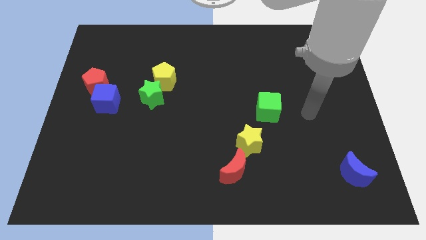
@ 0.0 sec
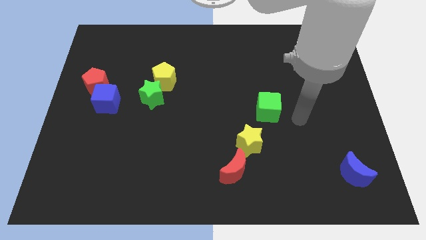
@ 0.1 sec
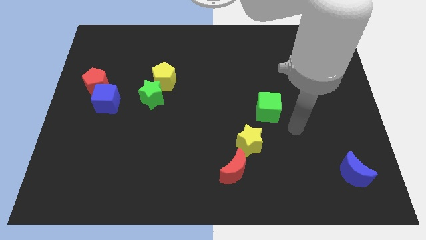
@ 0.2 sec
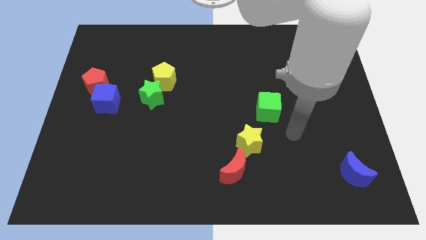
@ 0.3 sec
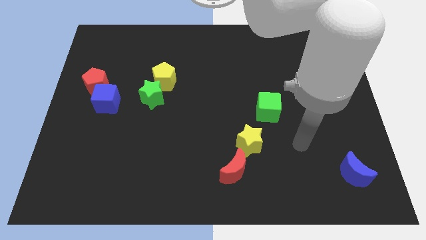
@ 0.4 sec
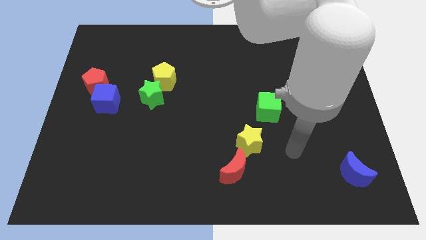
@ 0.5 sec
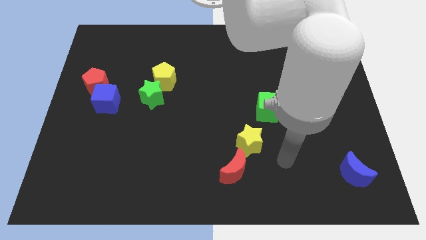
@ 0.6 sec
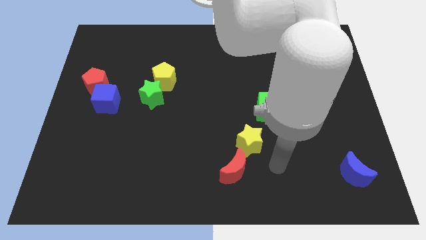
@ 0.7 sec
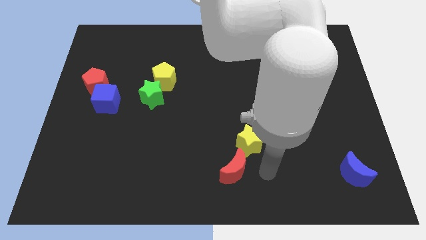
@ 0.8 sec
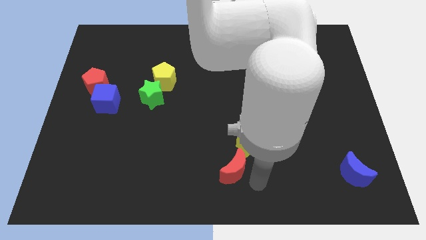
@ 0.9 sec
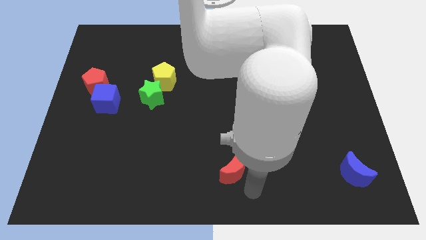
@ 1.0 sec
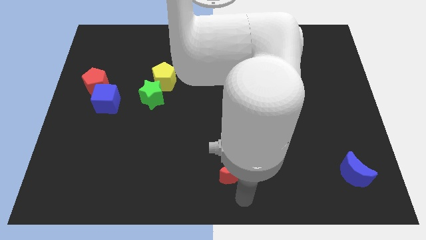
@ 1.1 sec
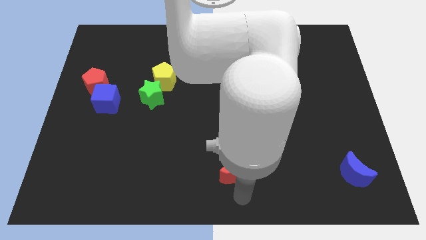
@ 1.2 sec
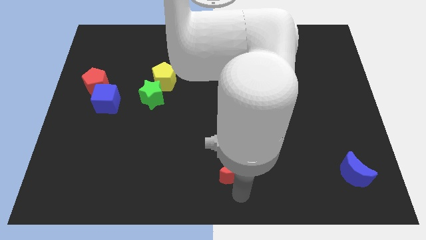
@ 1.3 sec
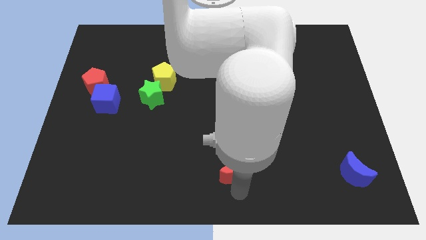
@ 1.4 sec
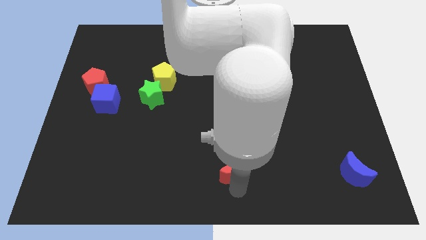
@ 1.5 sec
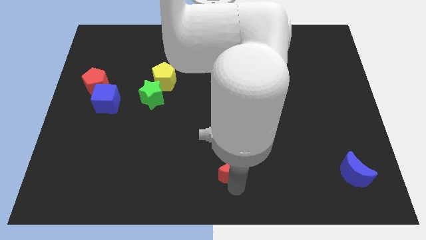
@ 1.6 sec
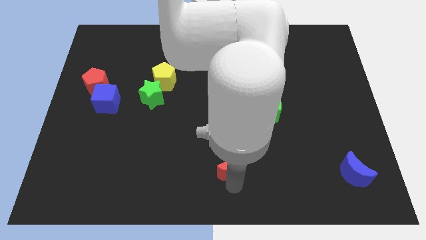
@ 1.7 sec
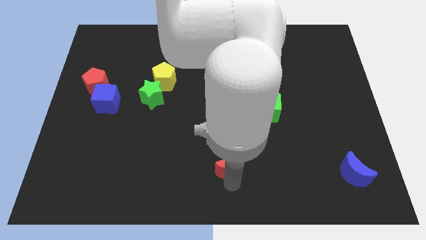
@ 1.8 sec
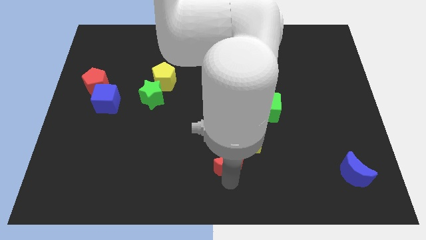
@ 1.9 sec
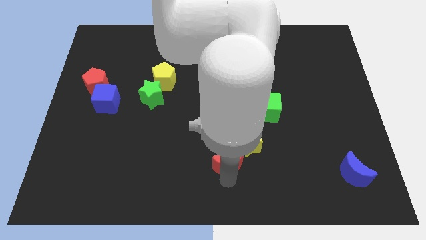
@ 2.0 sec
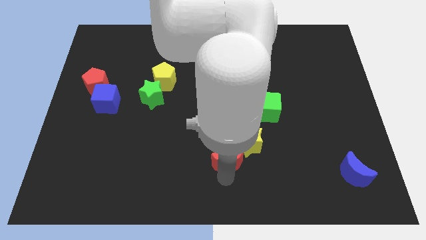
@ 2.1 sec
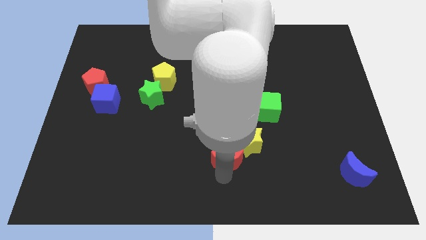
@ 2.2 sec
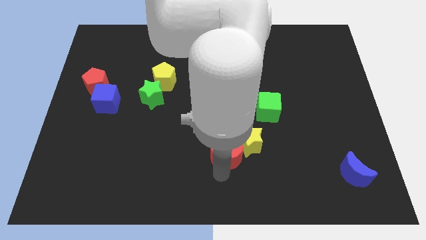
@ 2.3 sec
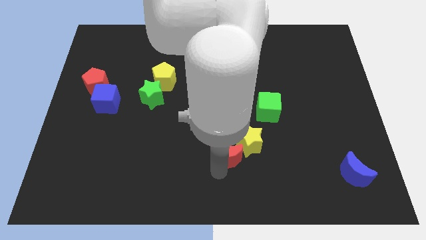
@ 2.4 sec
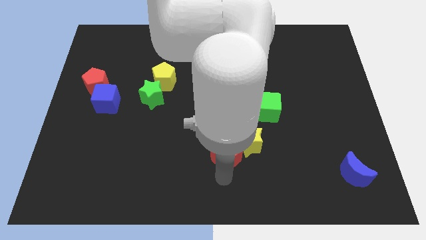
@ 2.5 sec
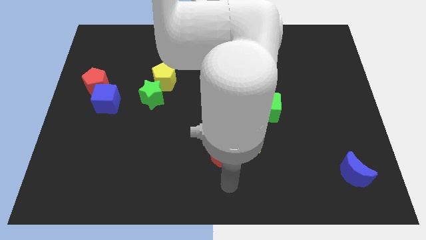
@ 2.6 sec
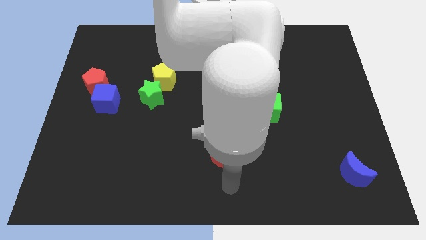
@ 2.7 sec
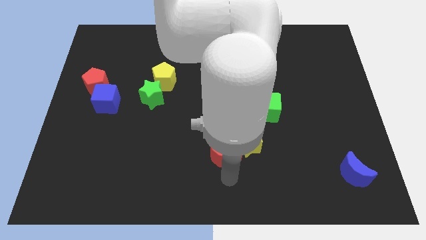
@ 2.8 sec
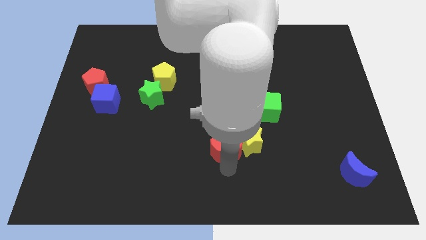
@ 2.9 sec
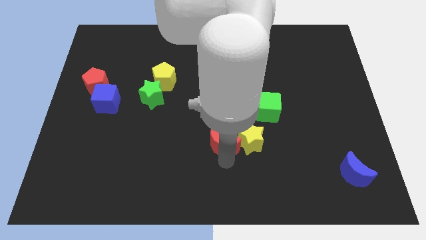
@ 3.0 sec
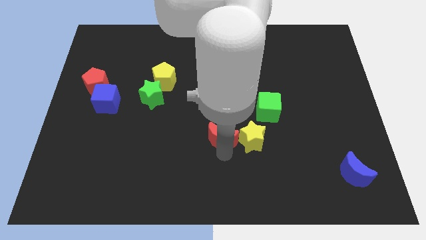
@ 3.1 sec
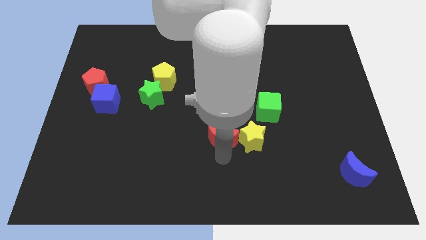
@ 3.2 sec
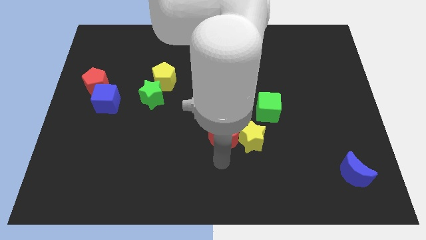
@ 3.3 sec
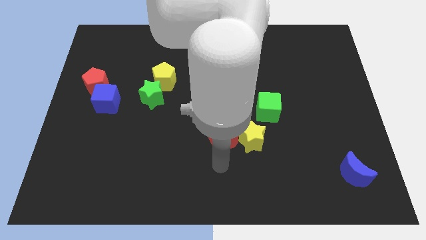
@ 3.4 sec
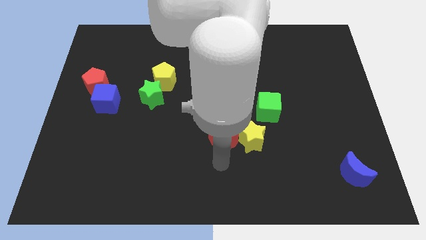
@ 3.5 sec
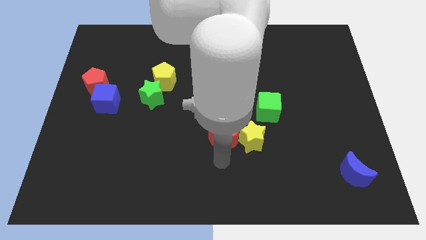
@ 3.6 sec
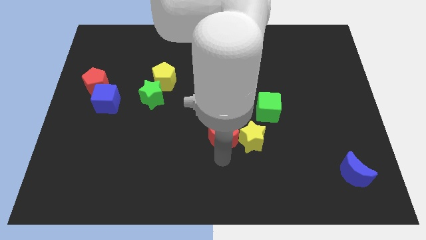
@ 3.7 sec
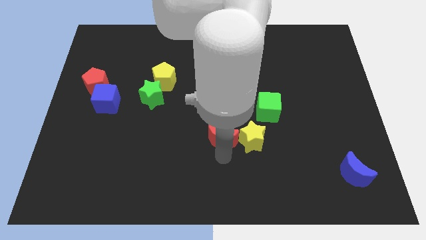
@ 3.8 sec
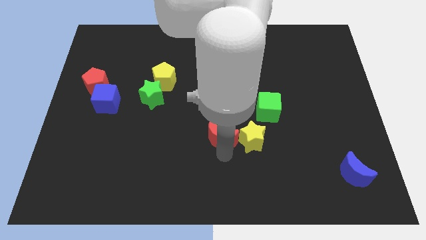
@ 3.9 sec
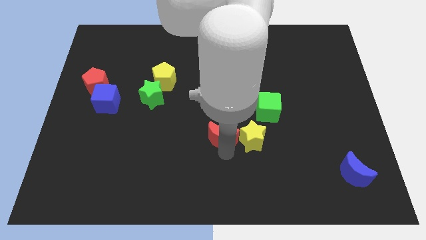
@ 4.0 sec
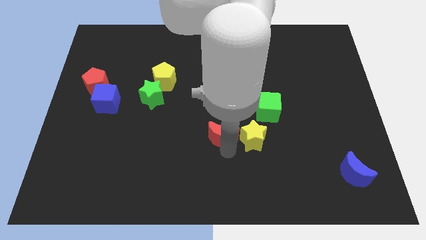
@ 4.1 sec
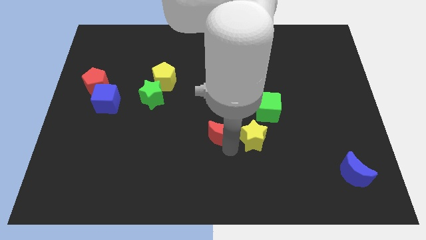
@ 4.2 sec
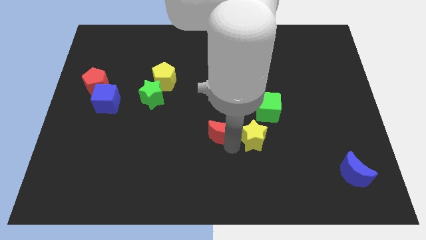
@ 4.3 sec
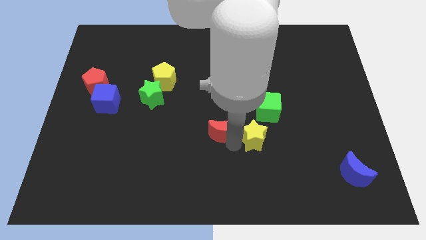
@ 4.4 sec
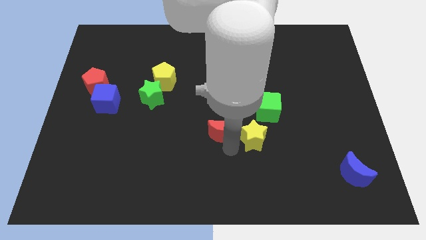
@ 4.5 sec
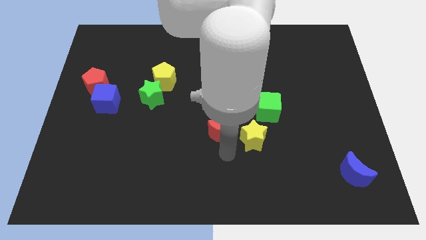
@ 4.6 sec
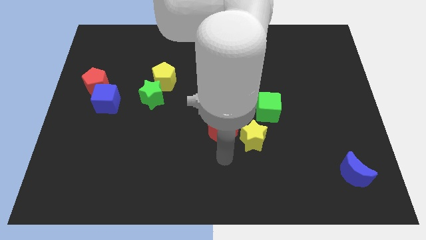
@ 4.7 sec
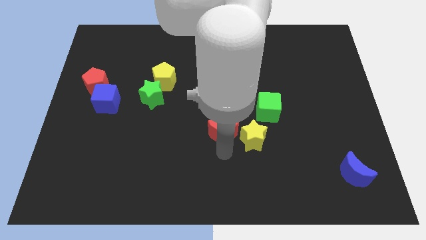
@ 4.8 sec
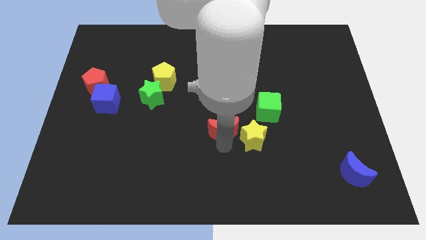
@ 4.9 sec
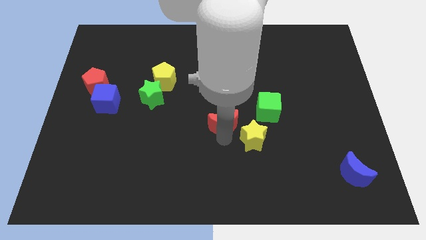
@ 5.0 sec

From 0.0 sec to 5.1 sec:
push the red moon just left of the green cube

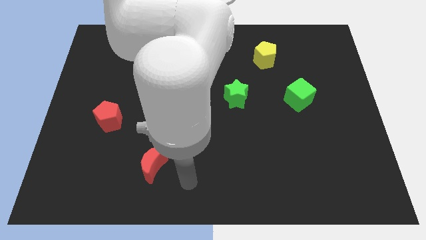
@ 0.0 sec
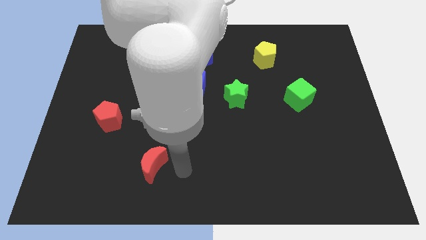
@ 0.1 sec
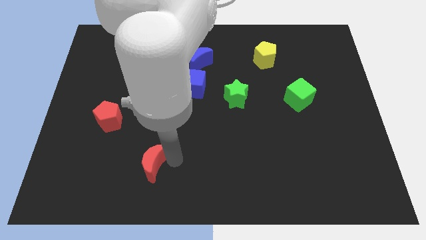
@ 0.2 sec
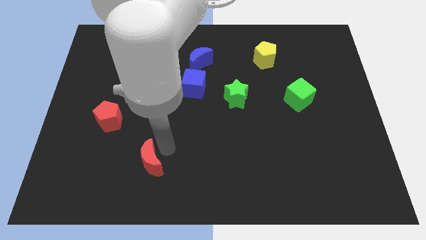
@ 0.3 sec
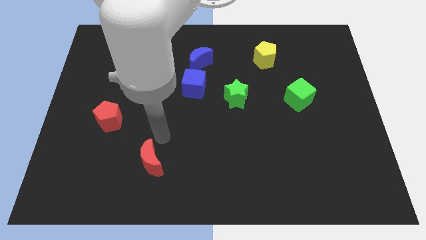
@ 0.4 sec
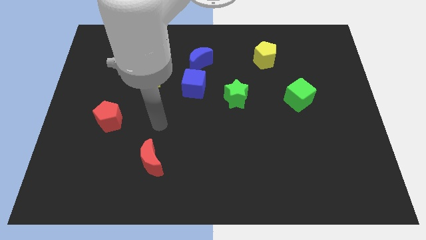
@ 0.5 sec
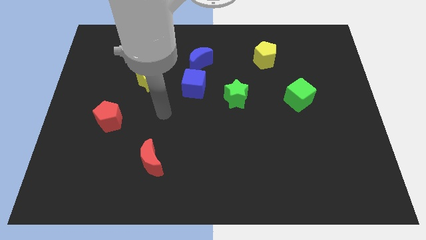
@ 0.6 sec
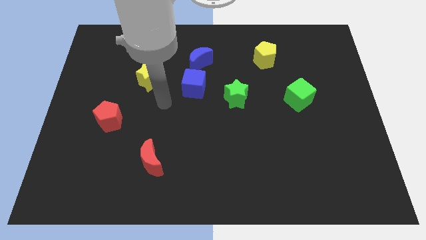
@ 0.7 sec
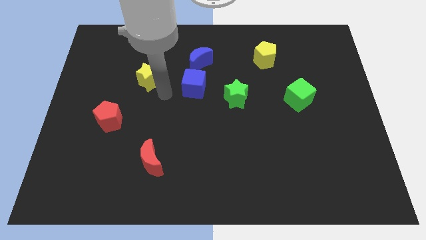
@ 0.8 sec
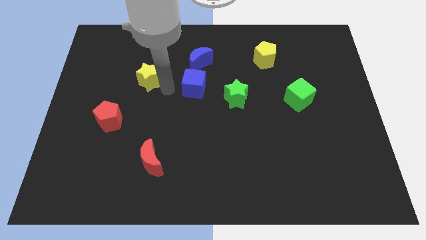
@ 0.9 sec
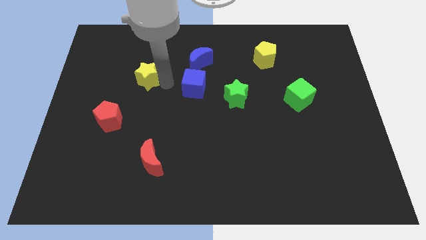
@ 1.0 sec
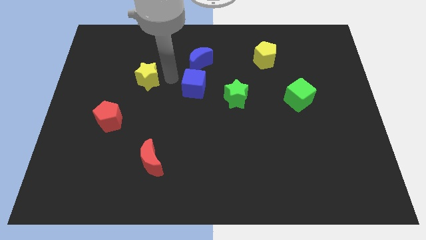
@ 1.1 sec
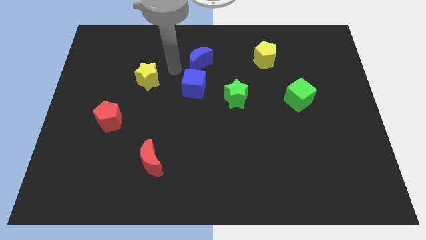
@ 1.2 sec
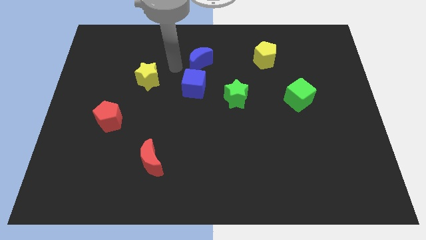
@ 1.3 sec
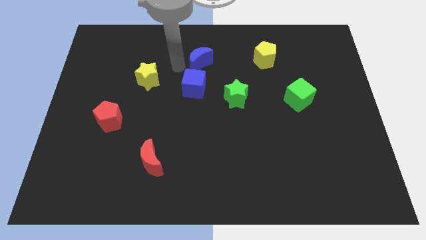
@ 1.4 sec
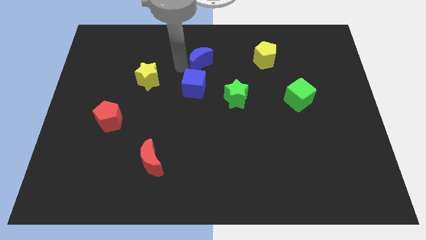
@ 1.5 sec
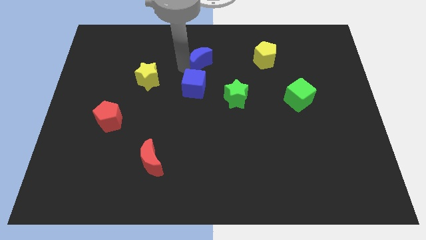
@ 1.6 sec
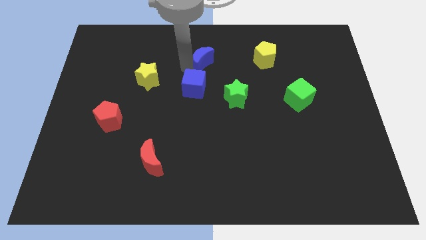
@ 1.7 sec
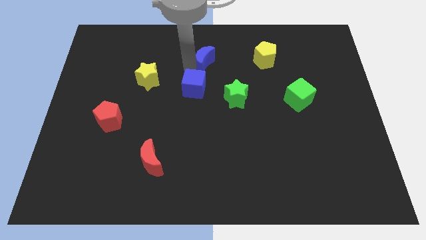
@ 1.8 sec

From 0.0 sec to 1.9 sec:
slide the blue moon to the left side of the yellow pentagon
